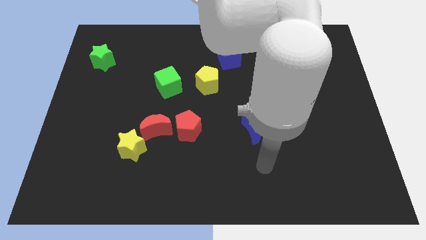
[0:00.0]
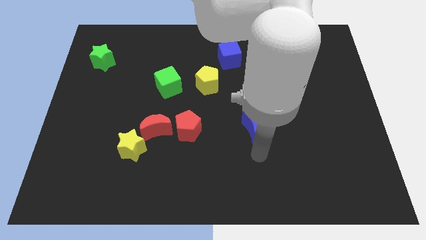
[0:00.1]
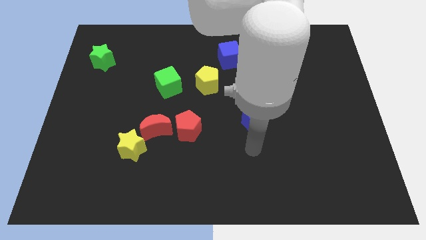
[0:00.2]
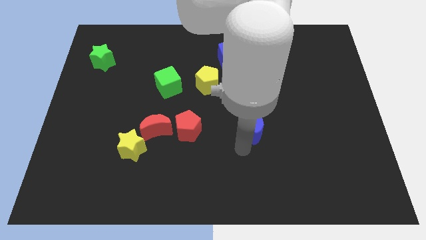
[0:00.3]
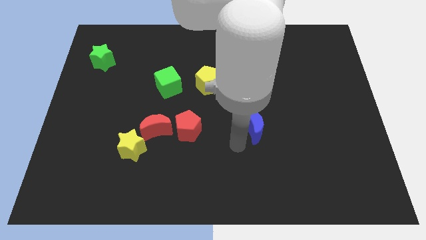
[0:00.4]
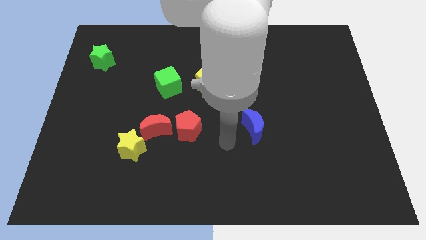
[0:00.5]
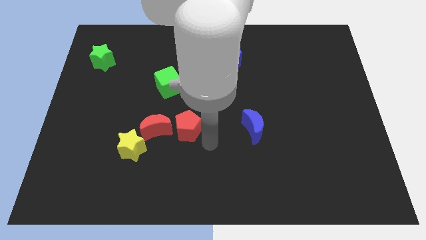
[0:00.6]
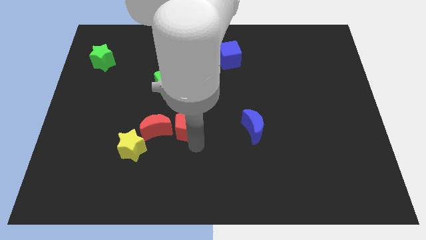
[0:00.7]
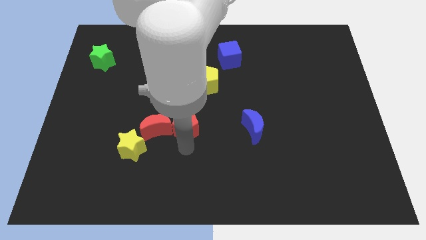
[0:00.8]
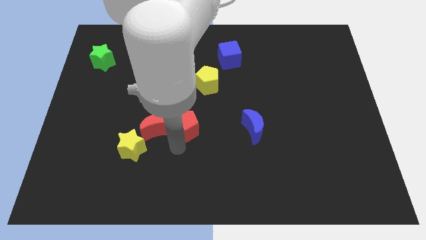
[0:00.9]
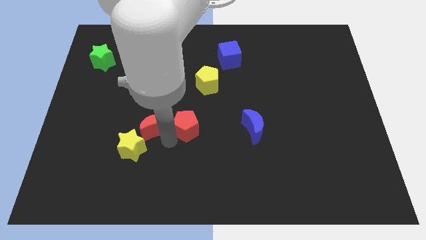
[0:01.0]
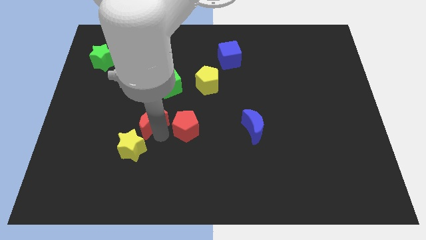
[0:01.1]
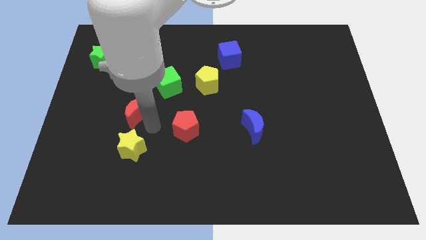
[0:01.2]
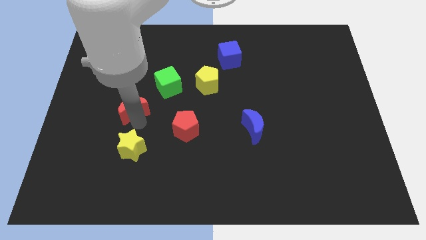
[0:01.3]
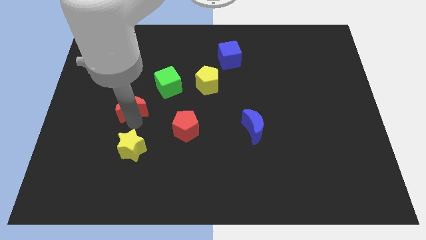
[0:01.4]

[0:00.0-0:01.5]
pull the yellow star apart from the red moon

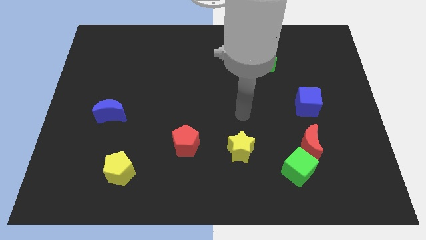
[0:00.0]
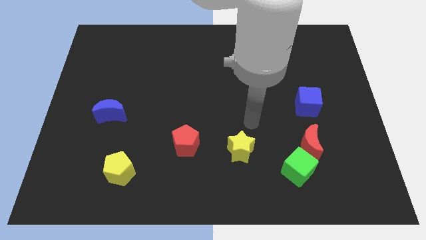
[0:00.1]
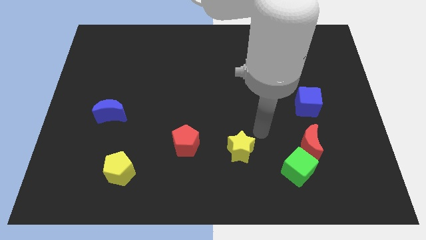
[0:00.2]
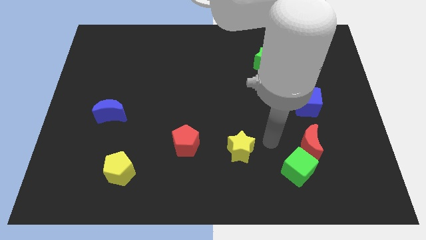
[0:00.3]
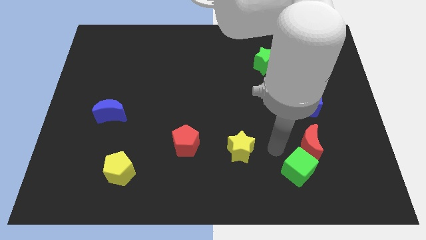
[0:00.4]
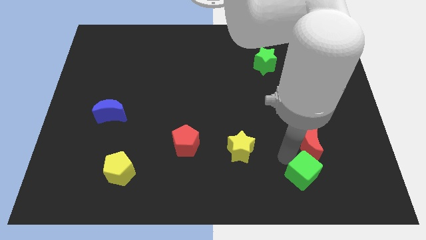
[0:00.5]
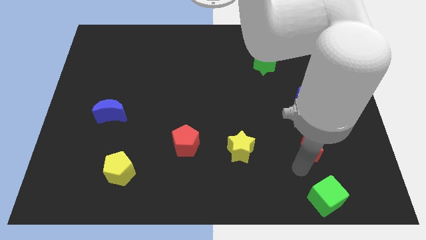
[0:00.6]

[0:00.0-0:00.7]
pull the red moon apart from the green cube

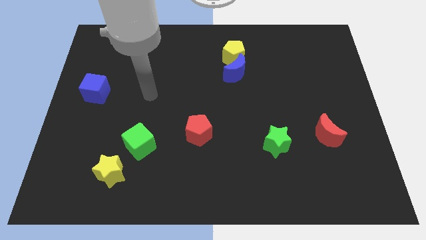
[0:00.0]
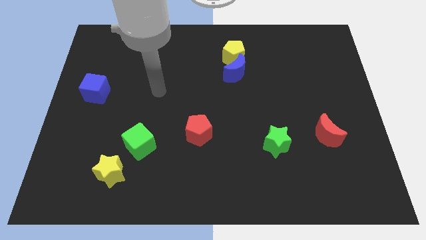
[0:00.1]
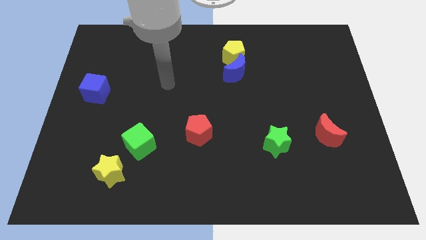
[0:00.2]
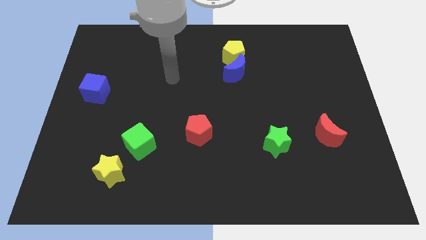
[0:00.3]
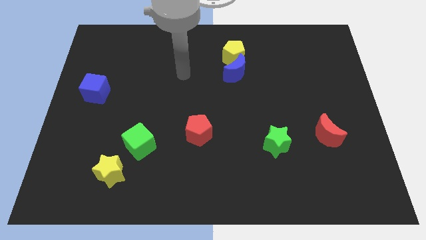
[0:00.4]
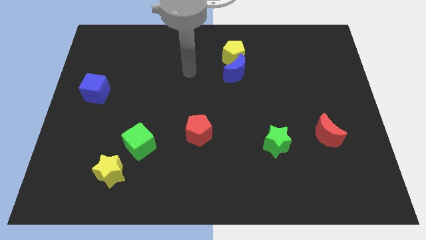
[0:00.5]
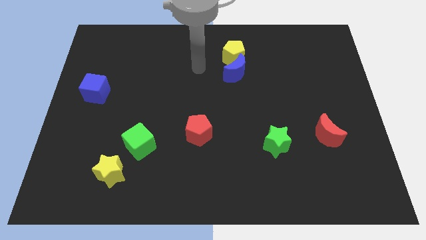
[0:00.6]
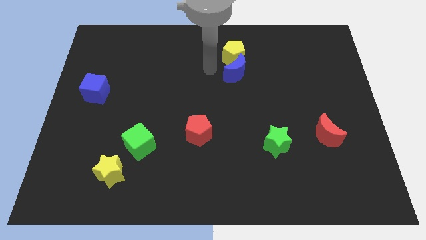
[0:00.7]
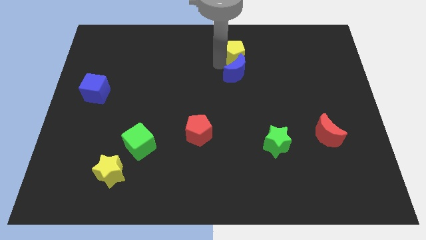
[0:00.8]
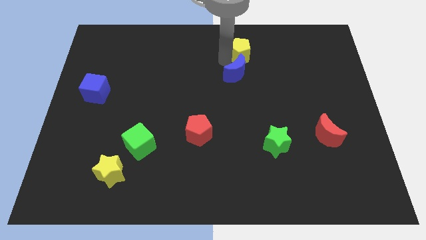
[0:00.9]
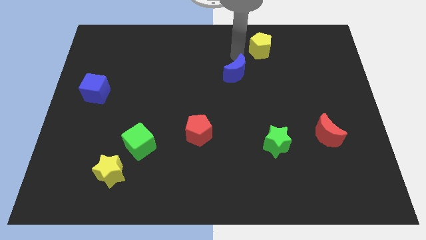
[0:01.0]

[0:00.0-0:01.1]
move the blue moon away from the yellow pentagon

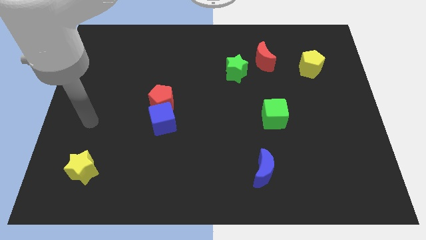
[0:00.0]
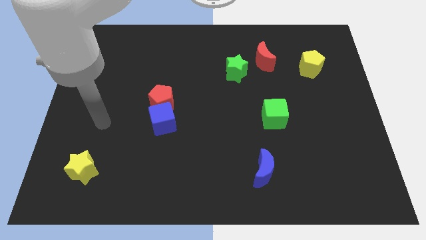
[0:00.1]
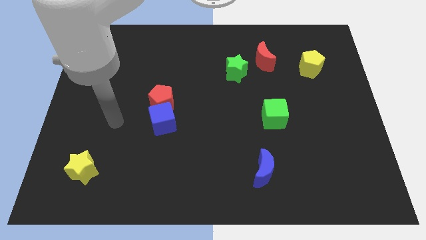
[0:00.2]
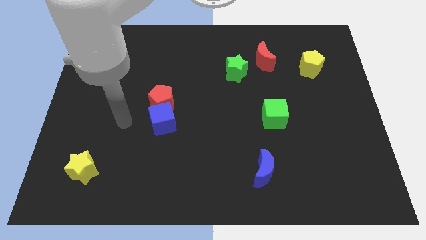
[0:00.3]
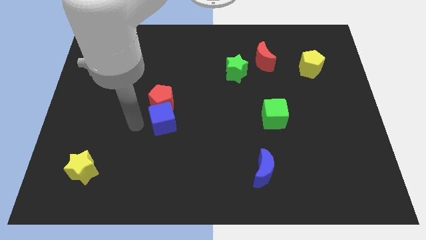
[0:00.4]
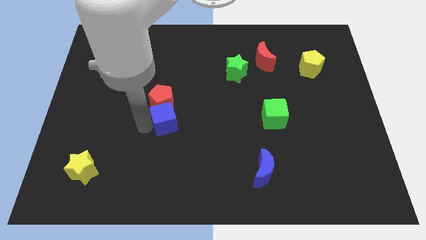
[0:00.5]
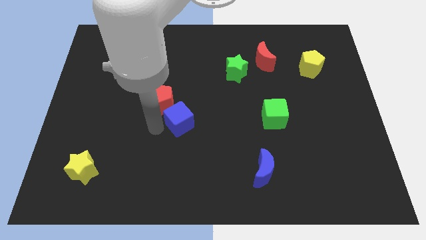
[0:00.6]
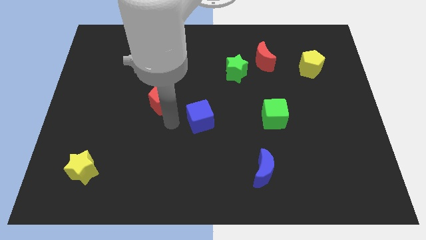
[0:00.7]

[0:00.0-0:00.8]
separate the red pentagon from the blue cube

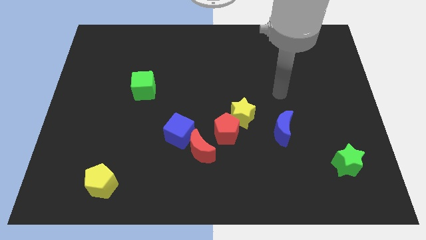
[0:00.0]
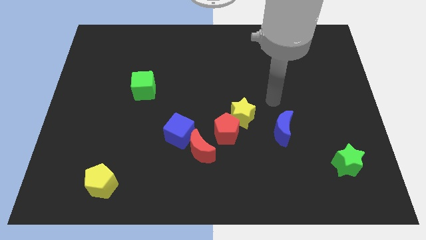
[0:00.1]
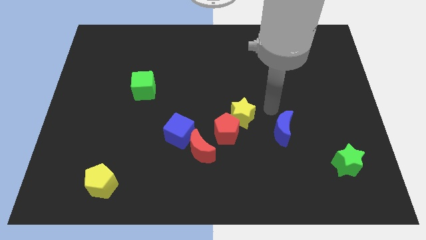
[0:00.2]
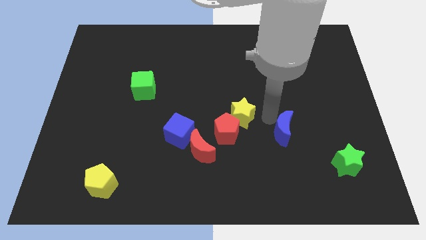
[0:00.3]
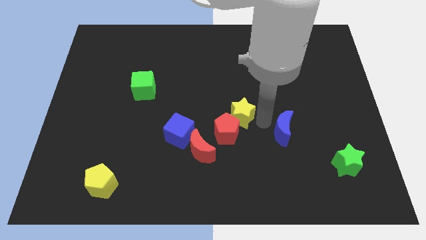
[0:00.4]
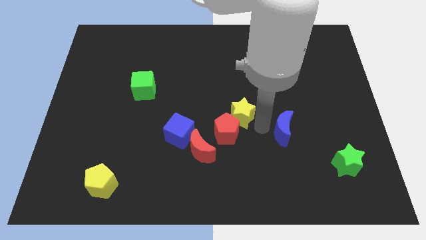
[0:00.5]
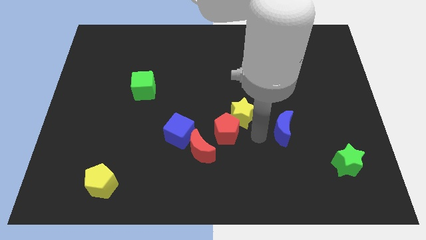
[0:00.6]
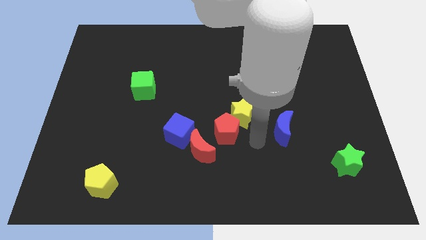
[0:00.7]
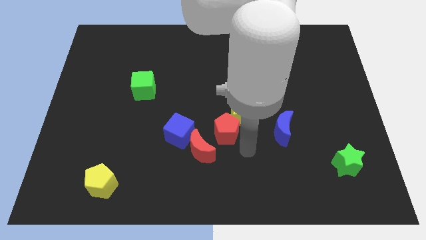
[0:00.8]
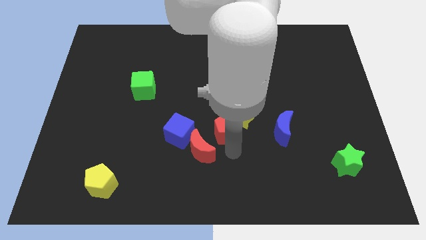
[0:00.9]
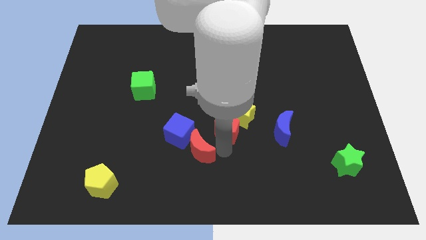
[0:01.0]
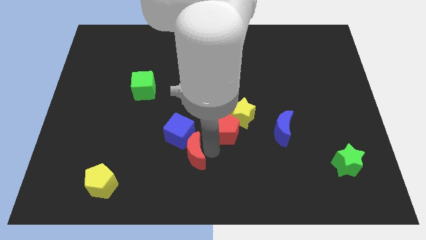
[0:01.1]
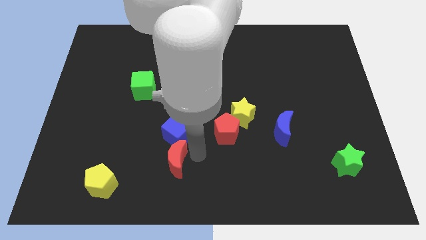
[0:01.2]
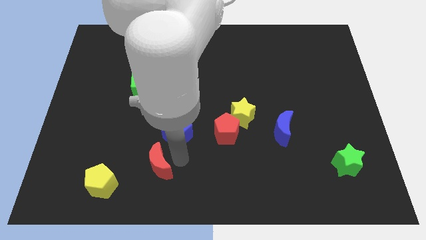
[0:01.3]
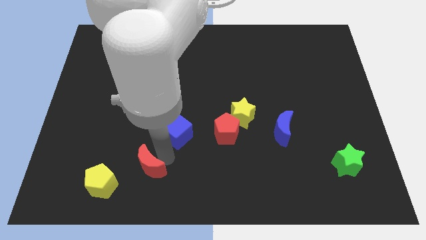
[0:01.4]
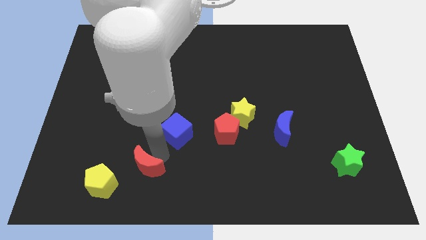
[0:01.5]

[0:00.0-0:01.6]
separate the blue cube from the red moon

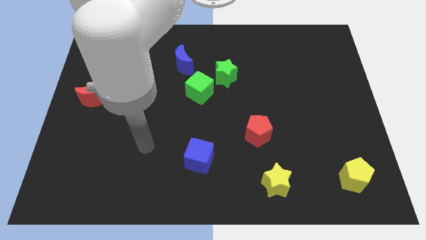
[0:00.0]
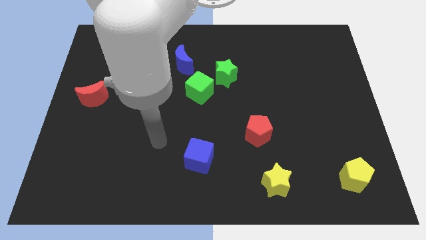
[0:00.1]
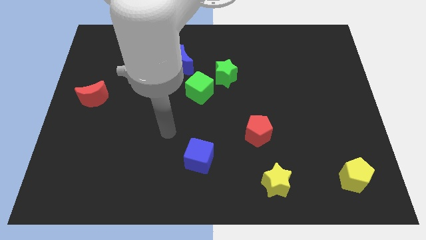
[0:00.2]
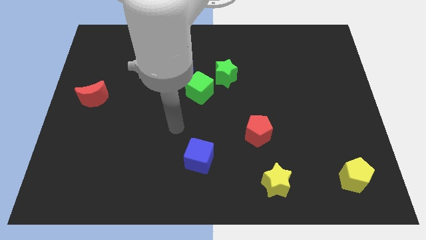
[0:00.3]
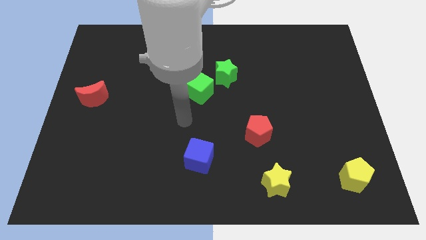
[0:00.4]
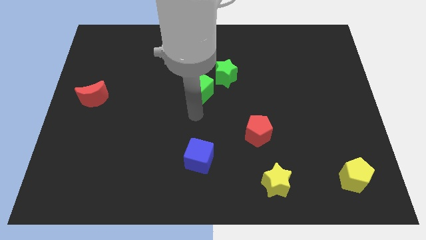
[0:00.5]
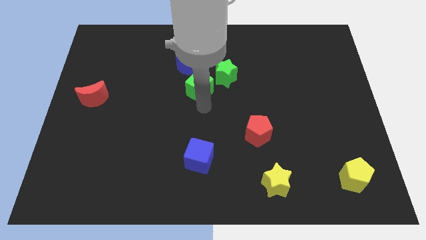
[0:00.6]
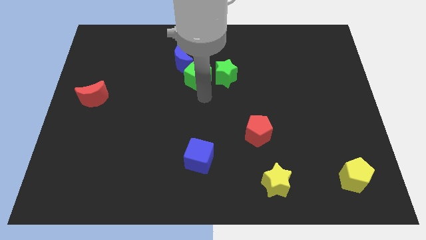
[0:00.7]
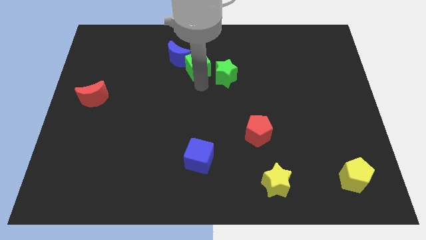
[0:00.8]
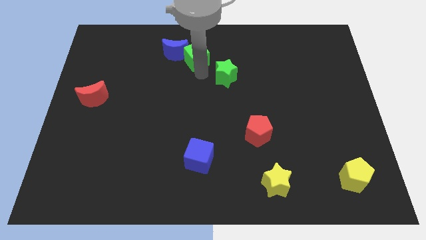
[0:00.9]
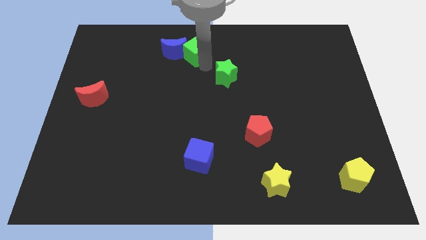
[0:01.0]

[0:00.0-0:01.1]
separate the green star from the green cube

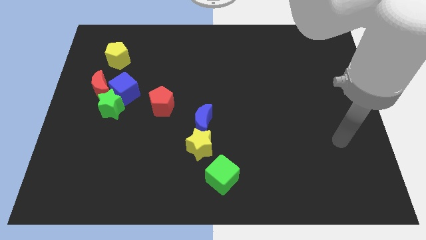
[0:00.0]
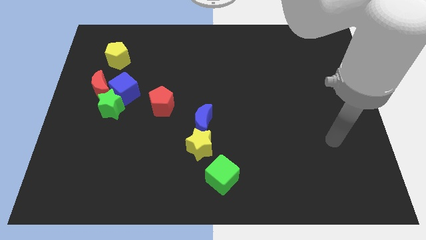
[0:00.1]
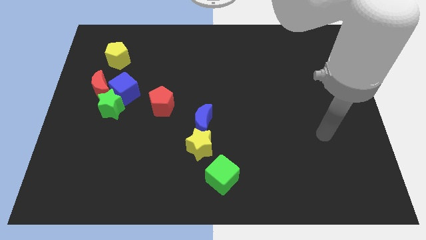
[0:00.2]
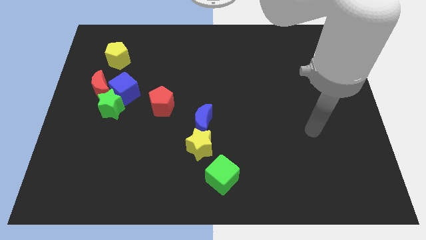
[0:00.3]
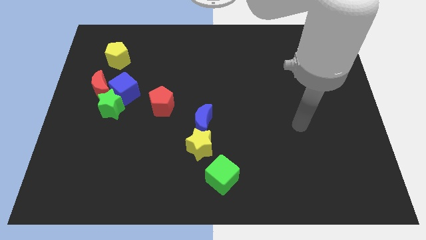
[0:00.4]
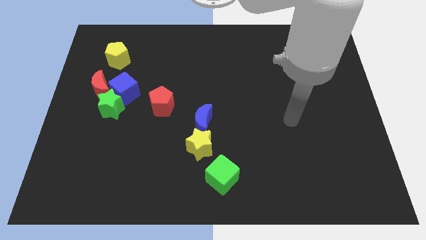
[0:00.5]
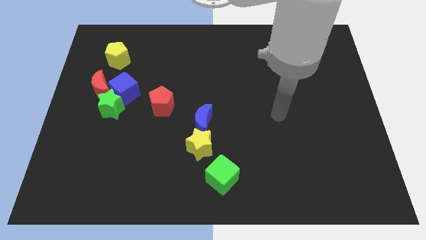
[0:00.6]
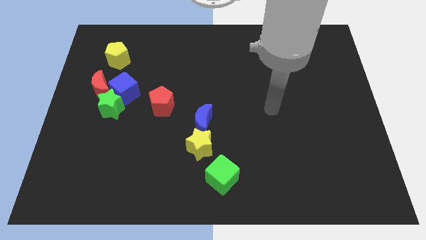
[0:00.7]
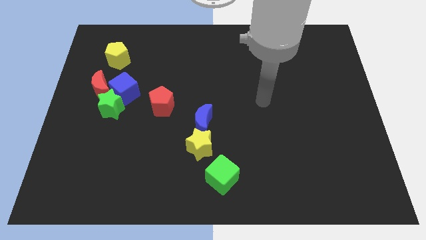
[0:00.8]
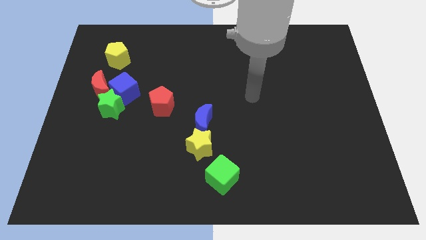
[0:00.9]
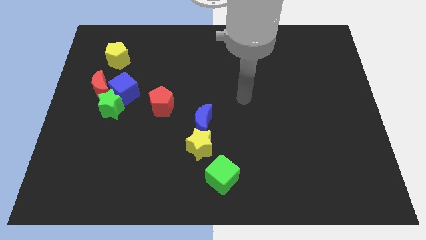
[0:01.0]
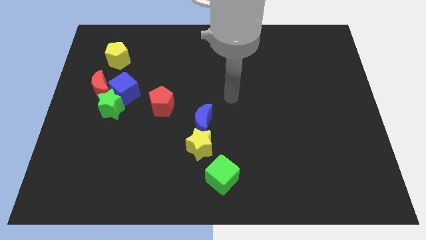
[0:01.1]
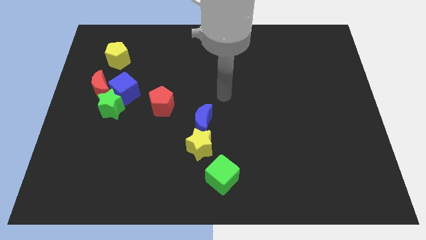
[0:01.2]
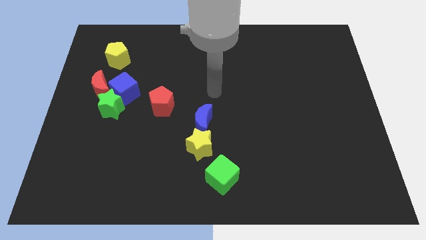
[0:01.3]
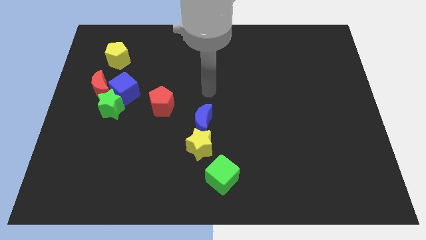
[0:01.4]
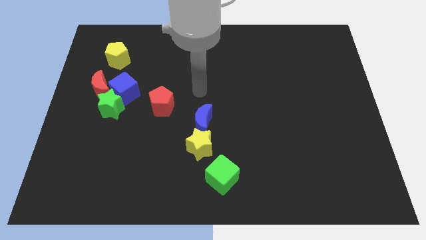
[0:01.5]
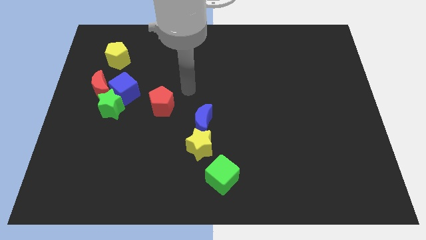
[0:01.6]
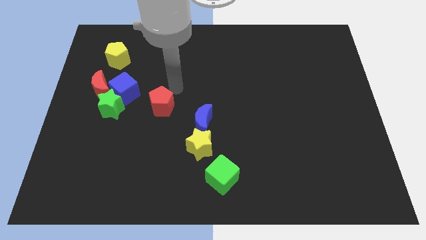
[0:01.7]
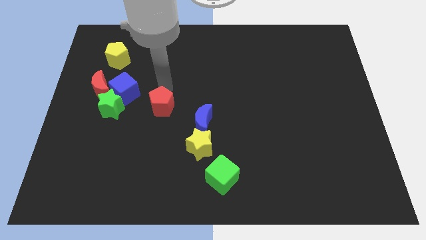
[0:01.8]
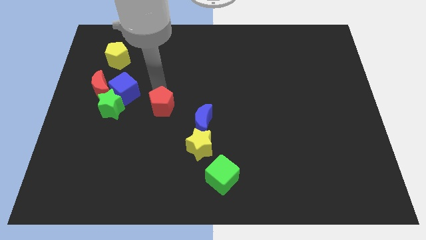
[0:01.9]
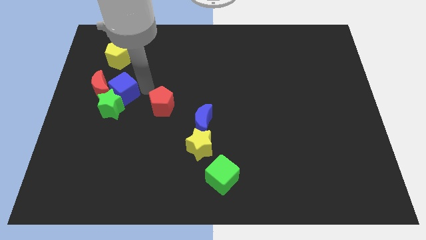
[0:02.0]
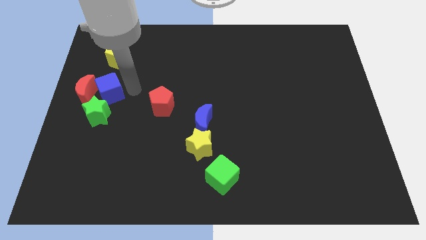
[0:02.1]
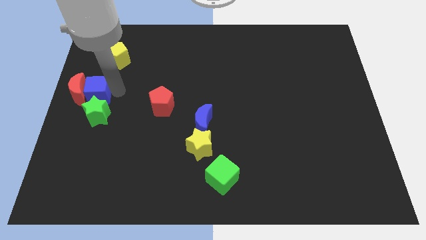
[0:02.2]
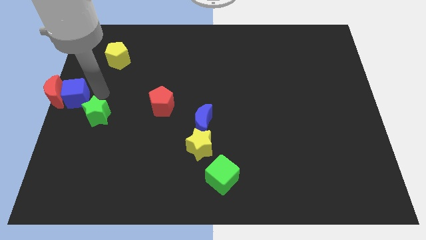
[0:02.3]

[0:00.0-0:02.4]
separate the green star from the blue cube and red moon

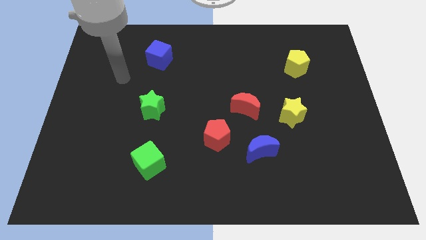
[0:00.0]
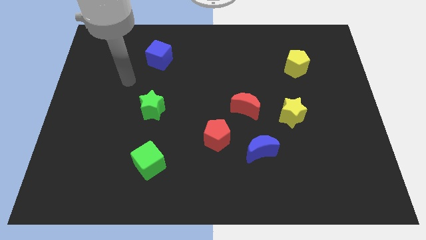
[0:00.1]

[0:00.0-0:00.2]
move the red pentagon away from the blue moon
